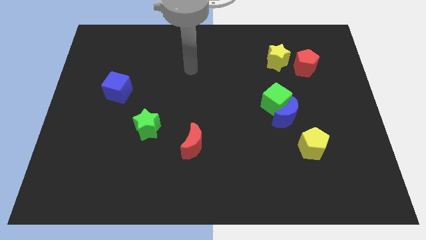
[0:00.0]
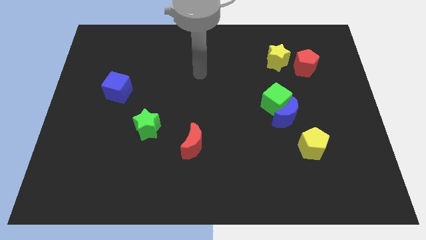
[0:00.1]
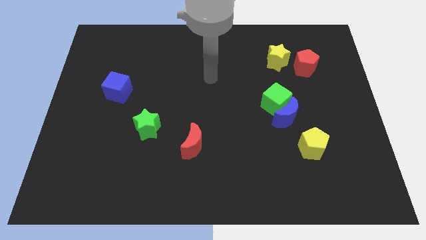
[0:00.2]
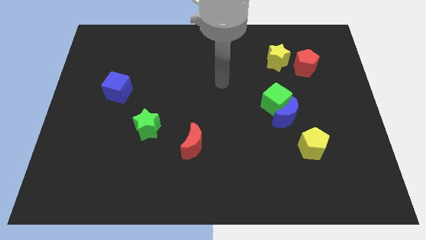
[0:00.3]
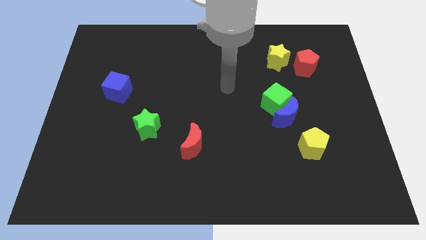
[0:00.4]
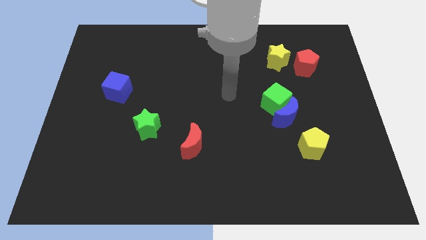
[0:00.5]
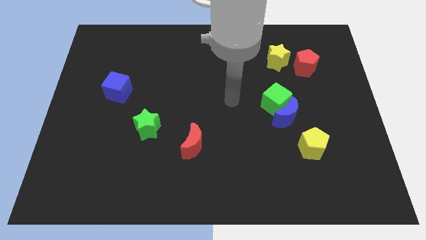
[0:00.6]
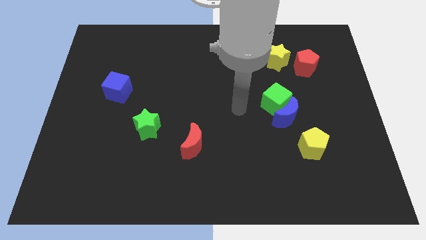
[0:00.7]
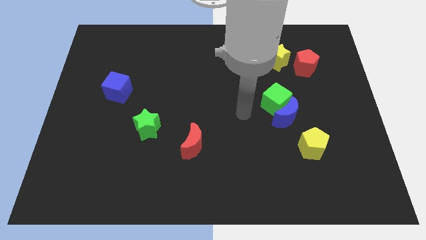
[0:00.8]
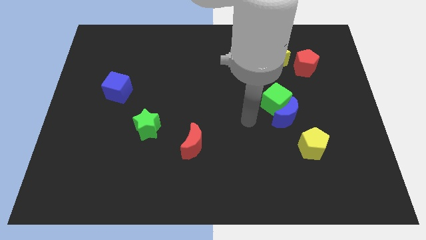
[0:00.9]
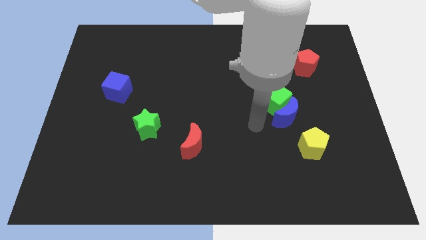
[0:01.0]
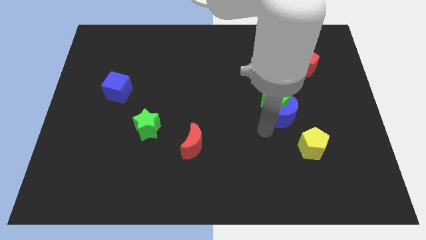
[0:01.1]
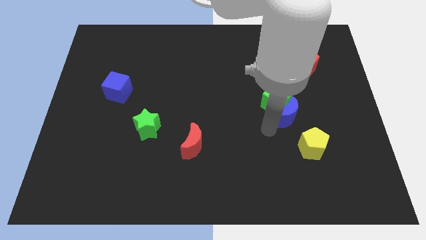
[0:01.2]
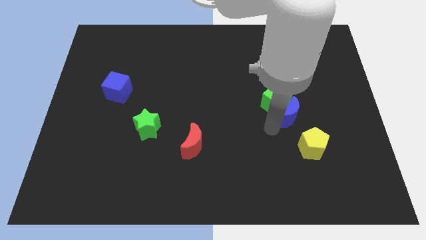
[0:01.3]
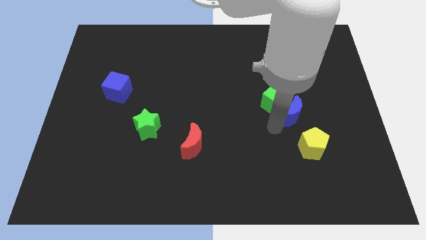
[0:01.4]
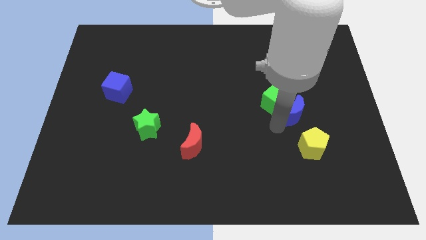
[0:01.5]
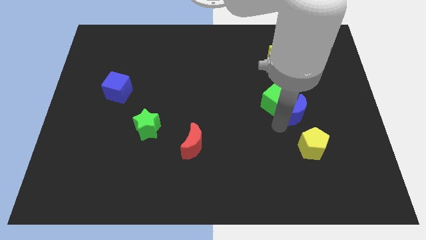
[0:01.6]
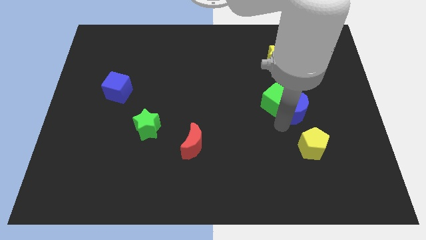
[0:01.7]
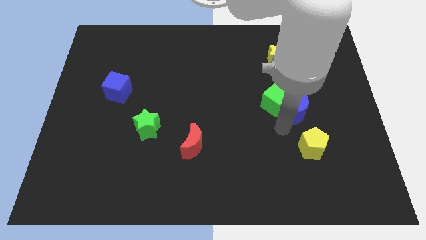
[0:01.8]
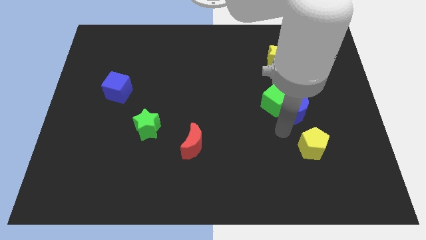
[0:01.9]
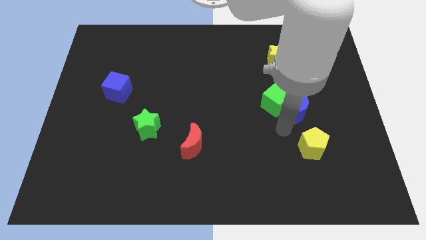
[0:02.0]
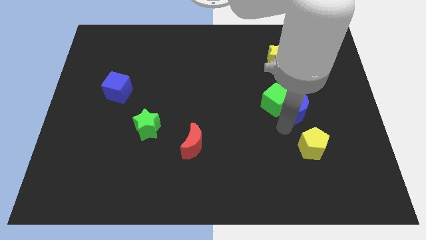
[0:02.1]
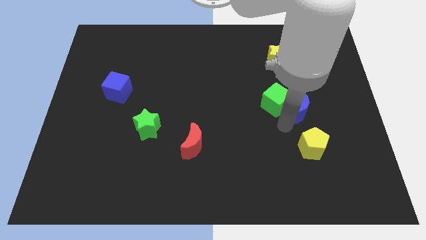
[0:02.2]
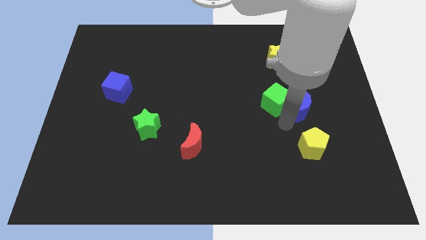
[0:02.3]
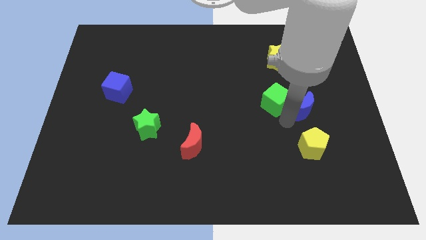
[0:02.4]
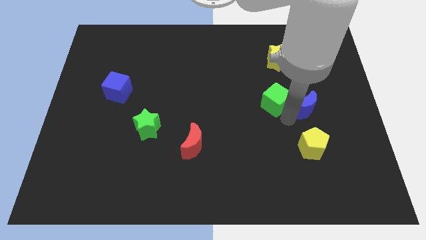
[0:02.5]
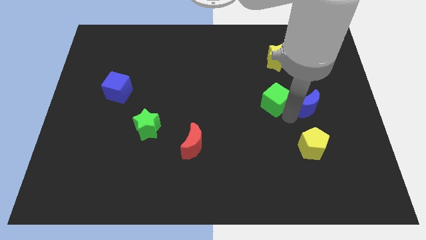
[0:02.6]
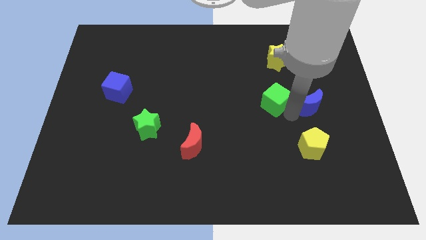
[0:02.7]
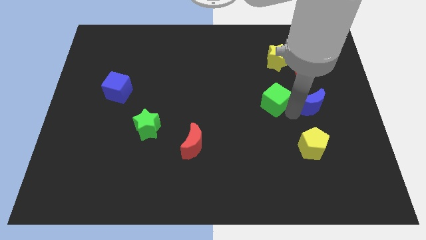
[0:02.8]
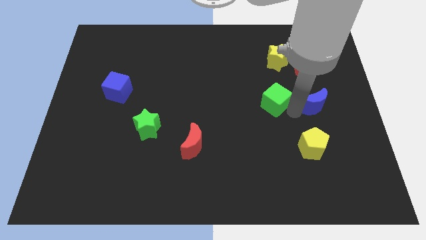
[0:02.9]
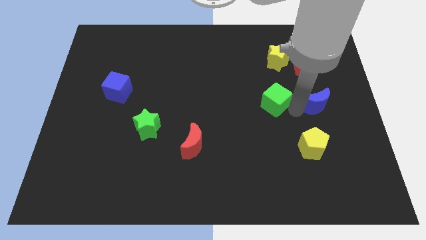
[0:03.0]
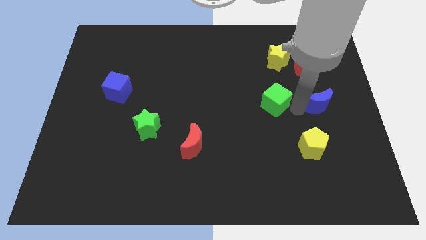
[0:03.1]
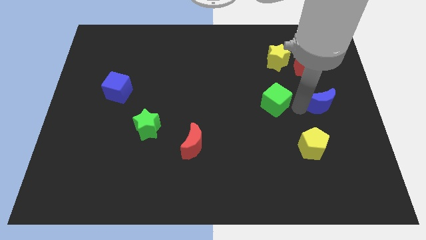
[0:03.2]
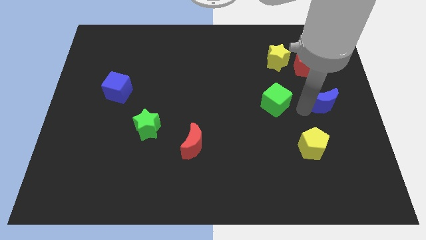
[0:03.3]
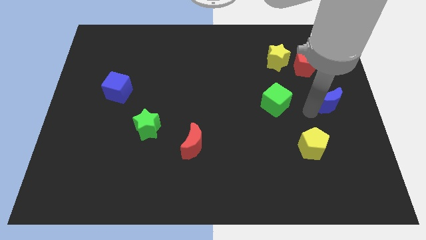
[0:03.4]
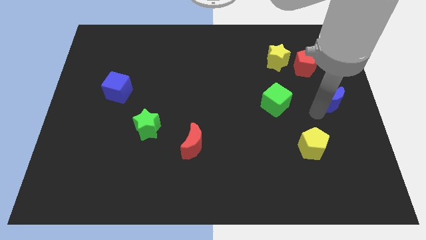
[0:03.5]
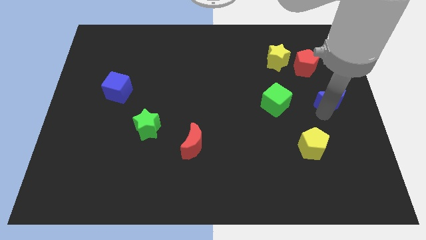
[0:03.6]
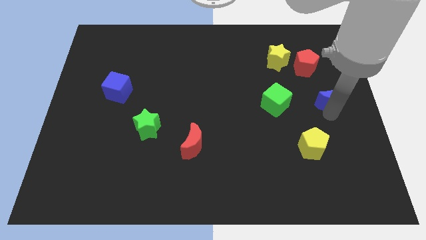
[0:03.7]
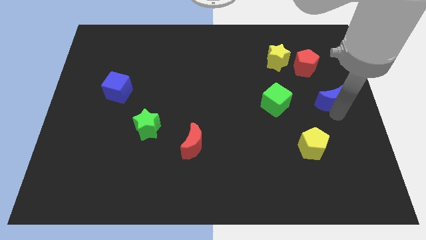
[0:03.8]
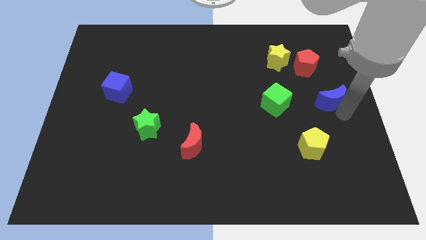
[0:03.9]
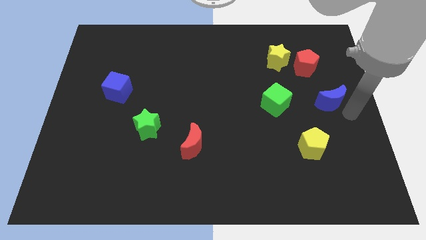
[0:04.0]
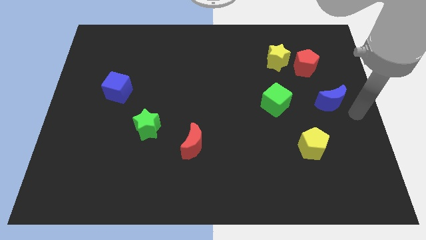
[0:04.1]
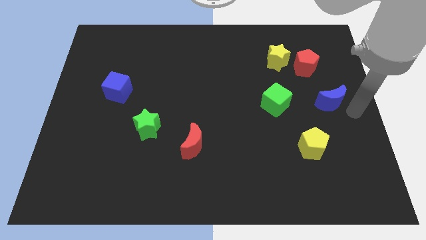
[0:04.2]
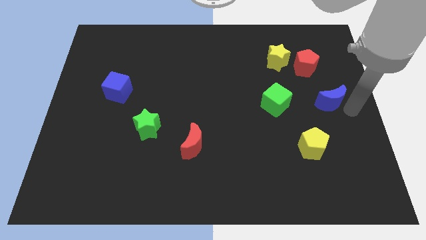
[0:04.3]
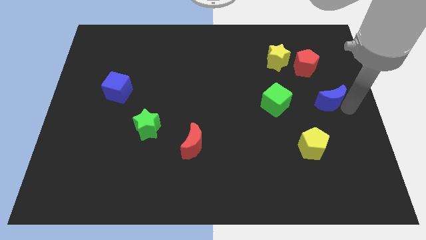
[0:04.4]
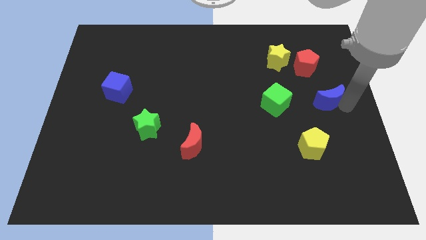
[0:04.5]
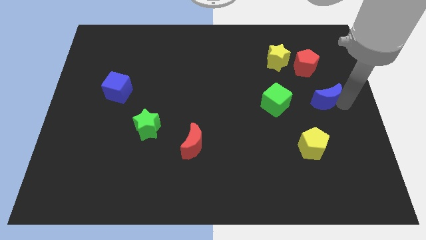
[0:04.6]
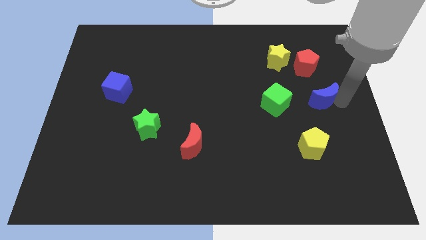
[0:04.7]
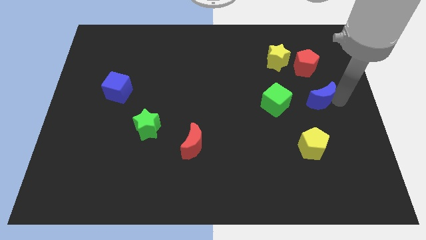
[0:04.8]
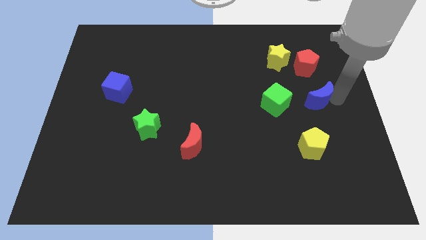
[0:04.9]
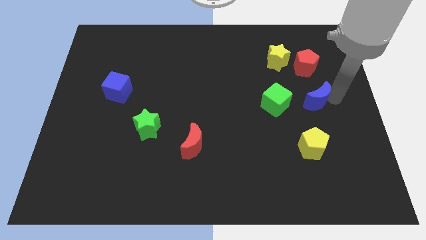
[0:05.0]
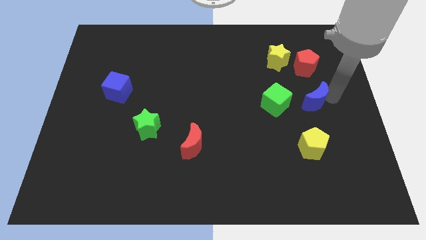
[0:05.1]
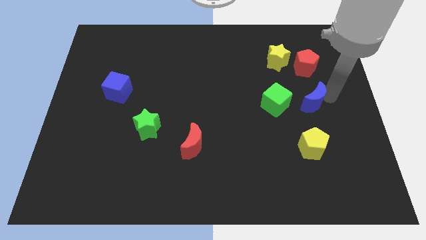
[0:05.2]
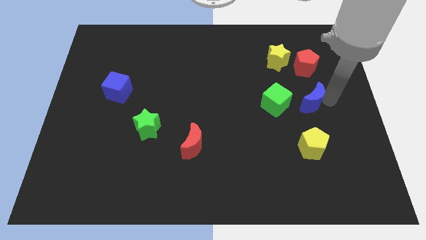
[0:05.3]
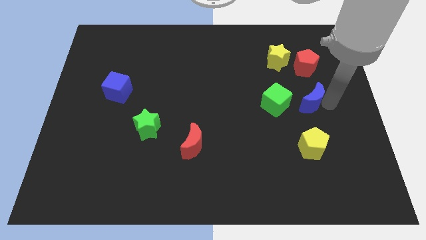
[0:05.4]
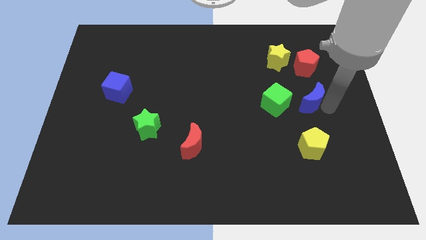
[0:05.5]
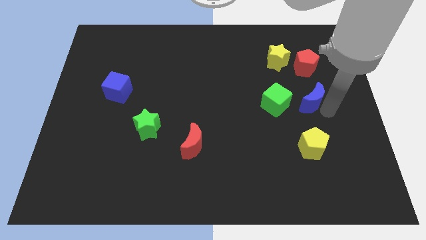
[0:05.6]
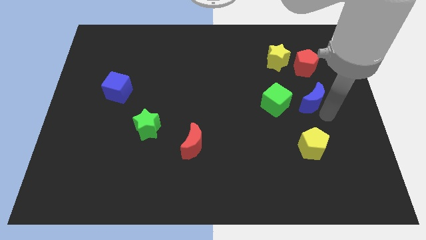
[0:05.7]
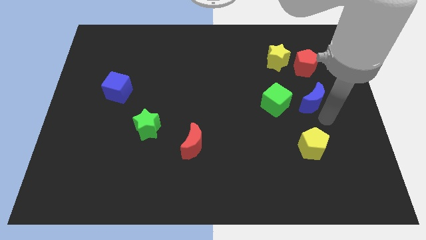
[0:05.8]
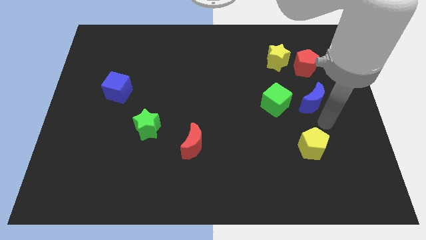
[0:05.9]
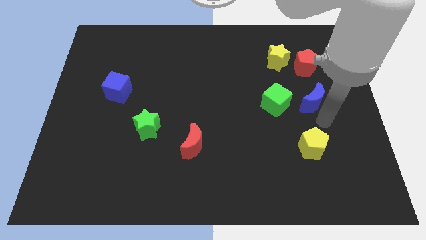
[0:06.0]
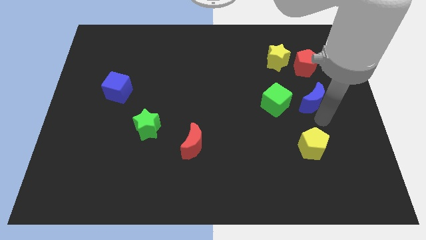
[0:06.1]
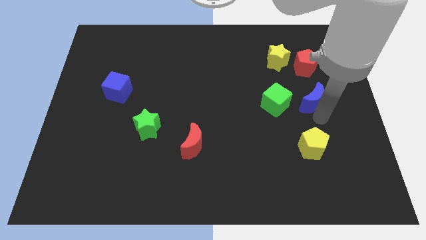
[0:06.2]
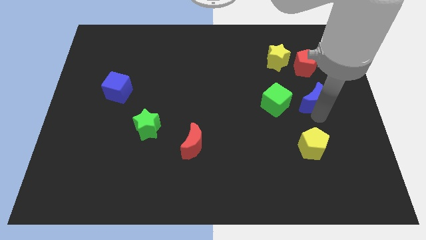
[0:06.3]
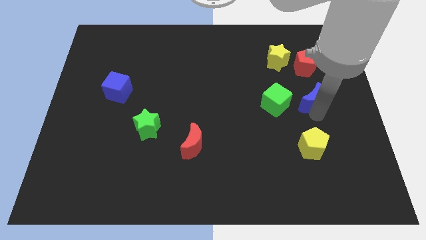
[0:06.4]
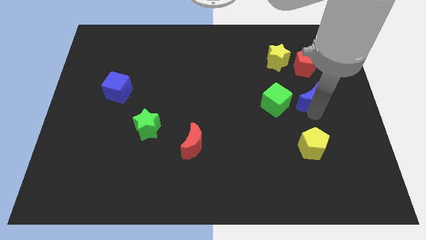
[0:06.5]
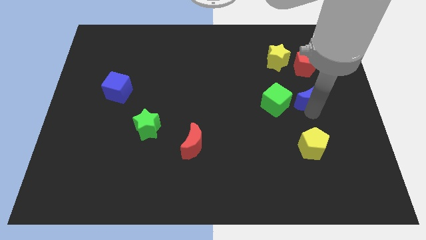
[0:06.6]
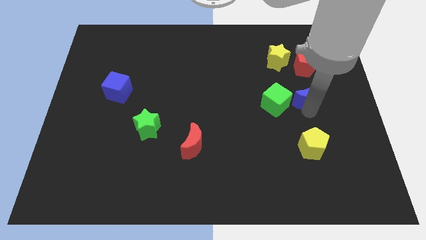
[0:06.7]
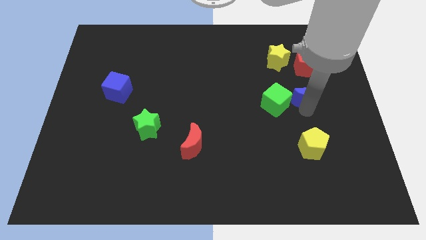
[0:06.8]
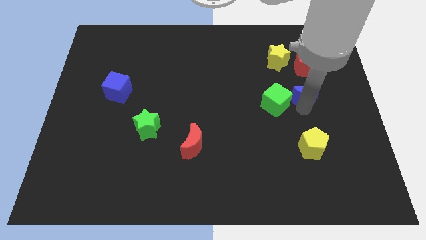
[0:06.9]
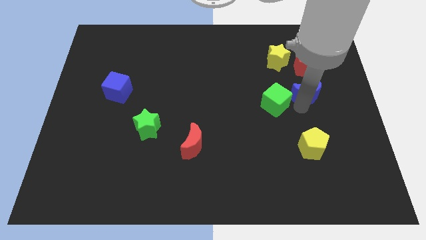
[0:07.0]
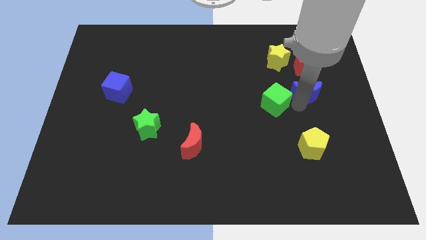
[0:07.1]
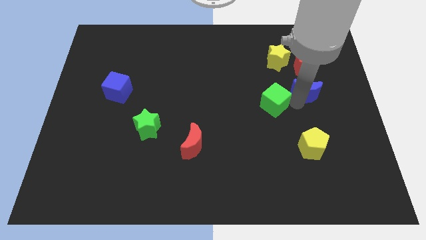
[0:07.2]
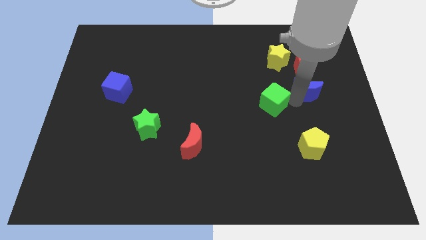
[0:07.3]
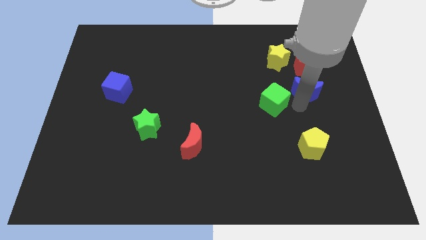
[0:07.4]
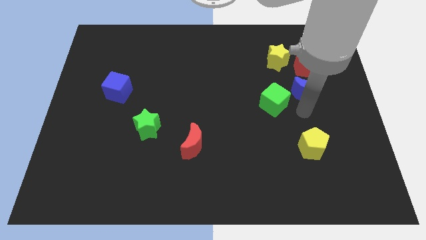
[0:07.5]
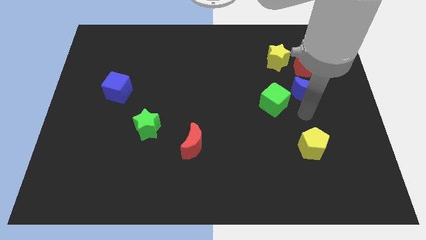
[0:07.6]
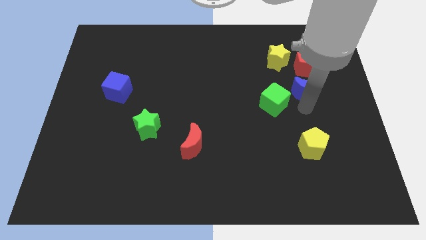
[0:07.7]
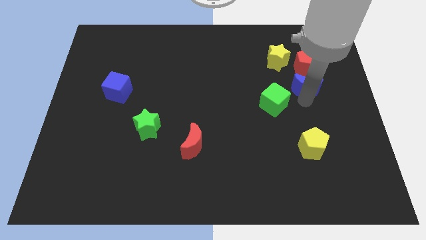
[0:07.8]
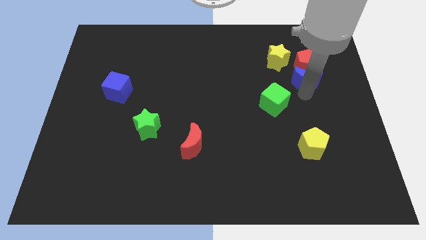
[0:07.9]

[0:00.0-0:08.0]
push the blue moon towards the red pentagon
